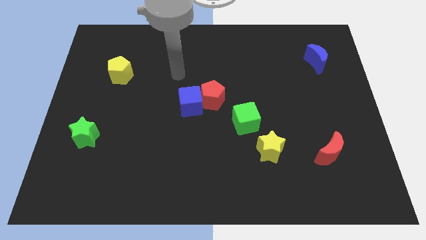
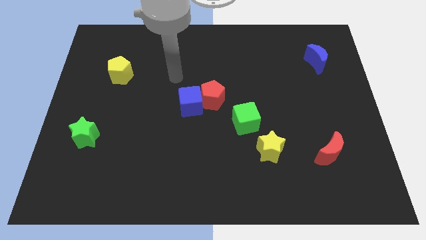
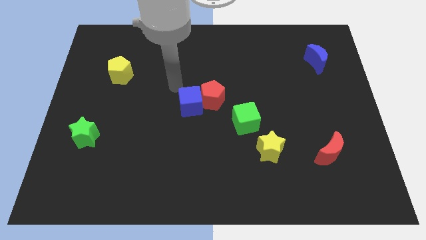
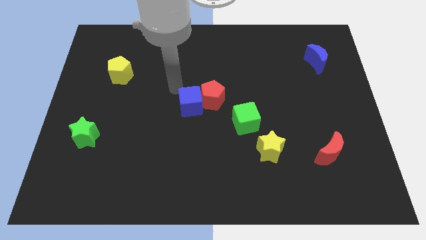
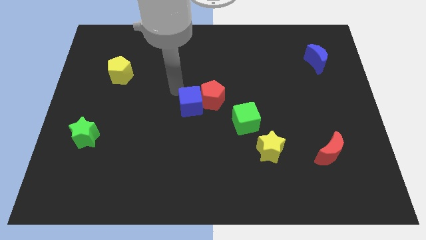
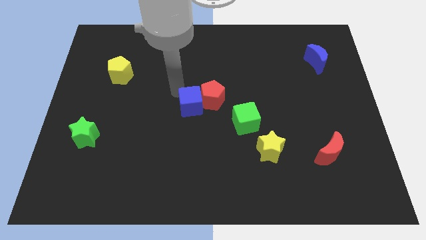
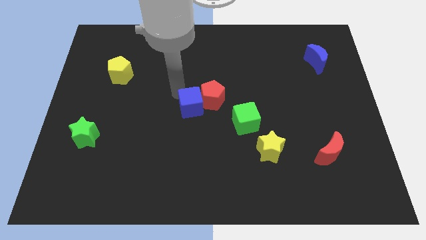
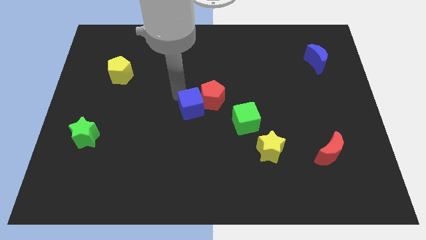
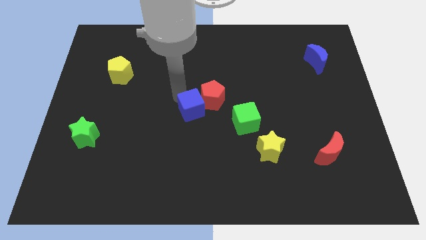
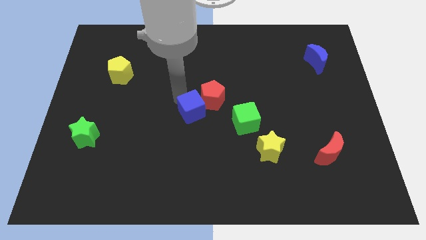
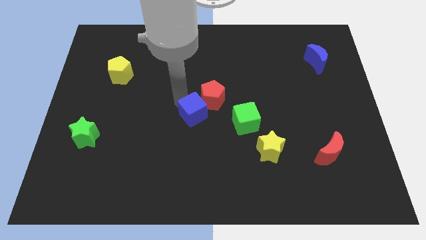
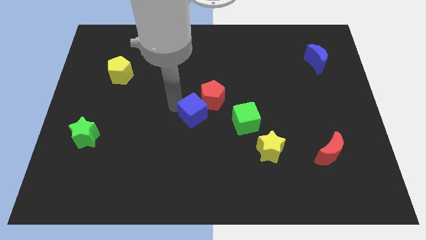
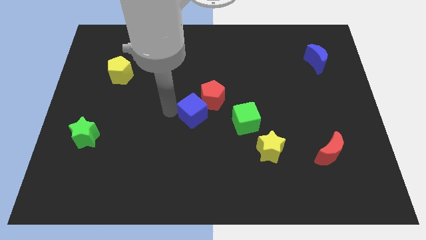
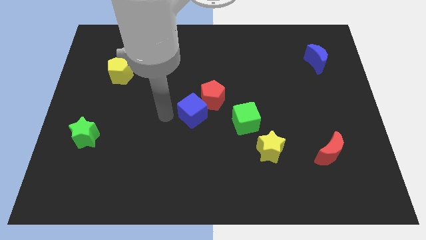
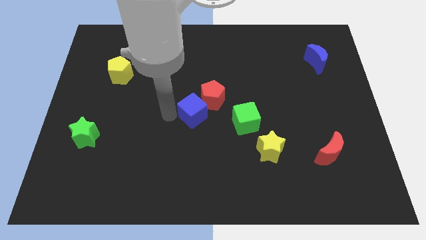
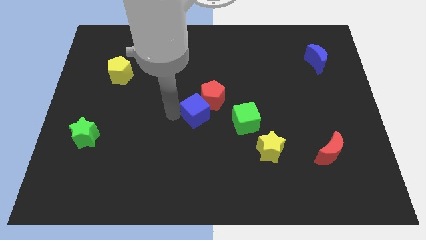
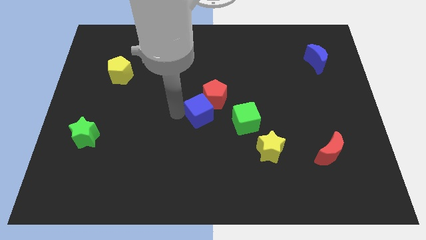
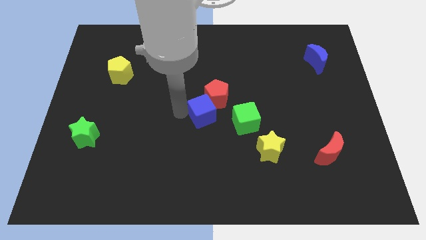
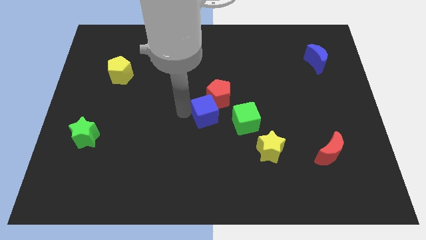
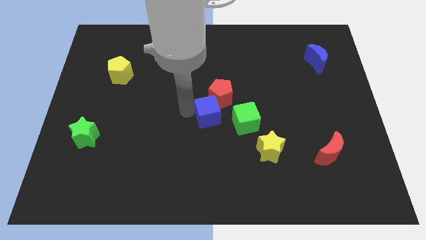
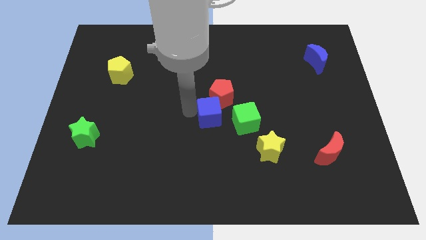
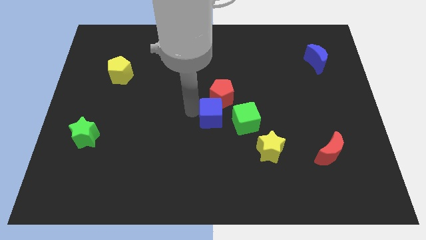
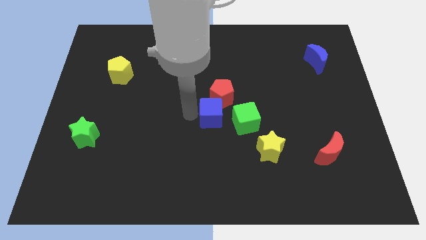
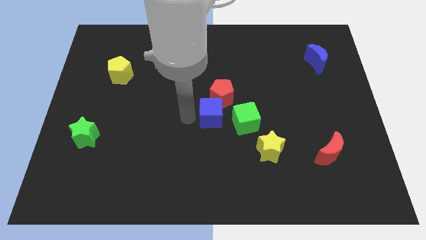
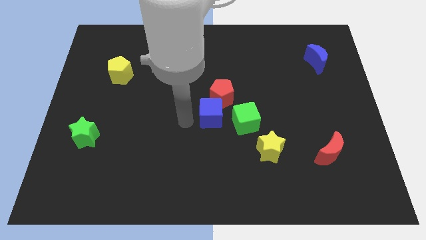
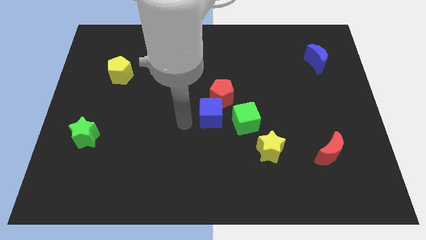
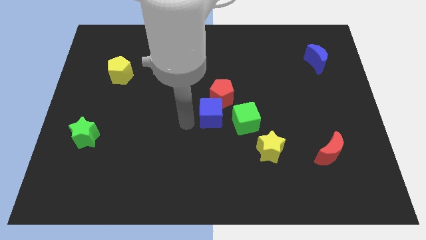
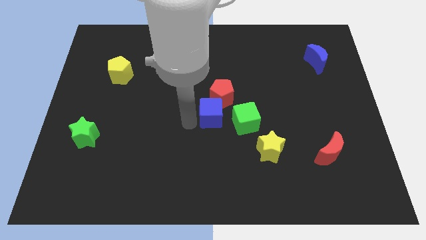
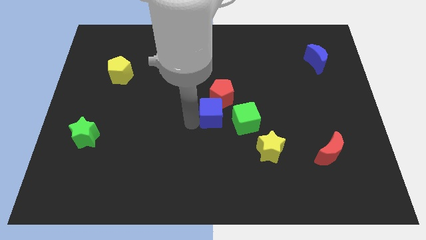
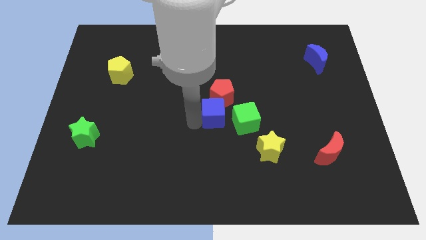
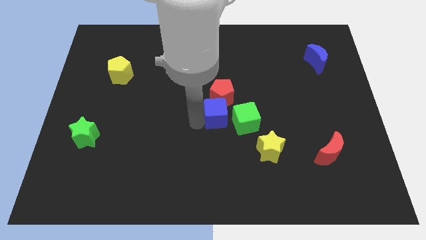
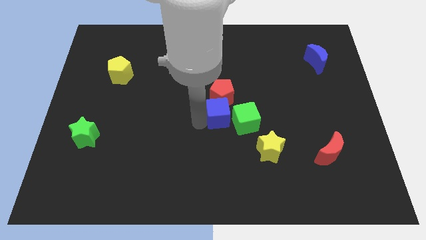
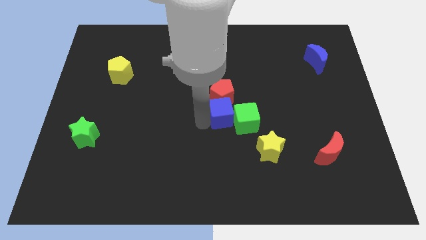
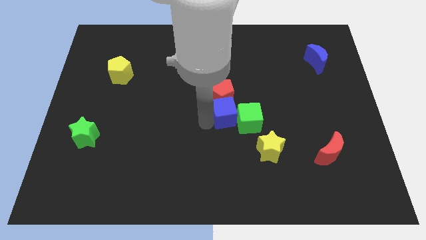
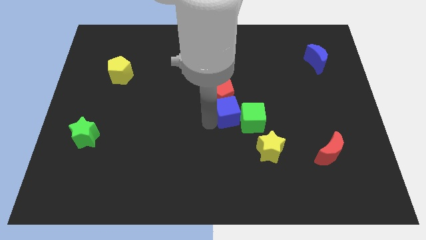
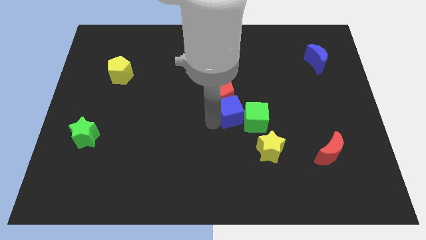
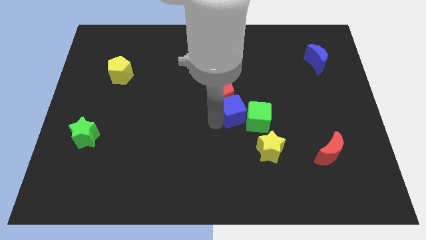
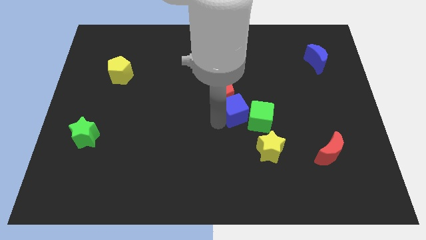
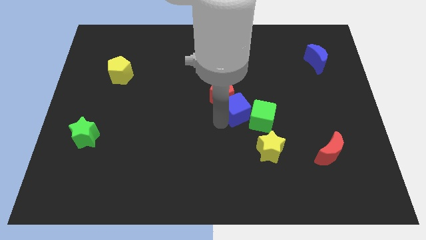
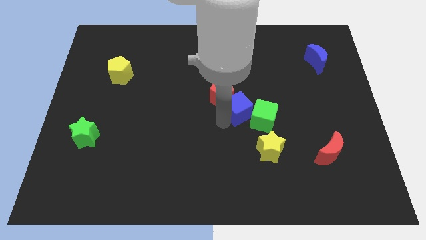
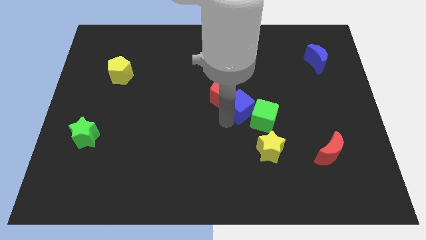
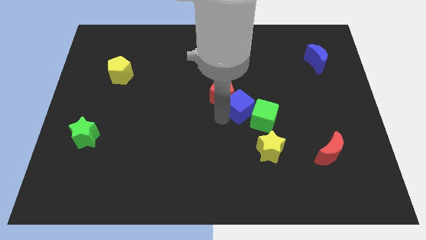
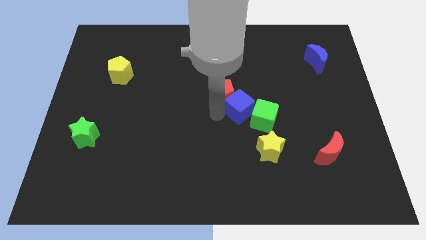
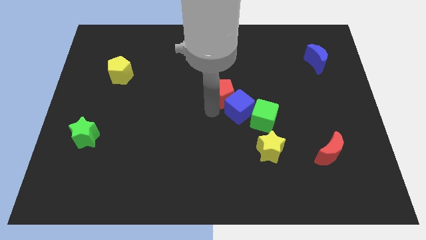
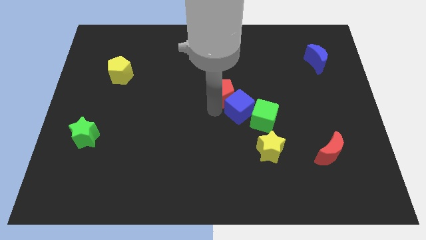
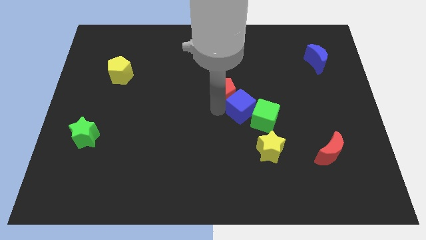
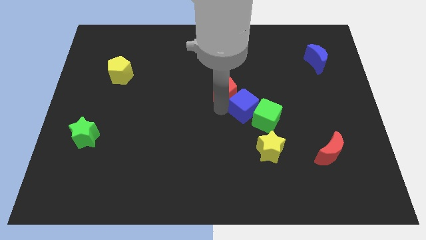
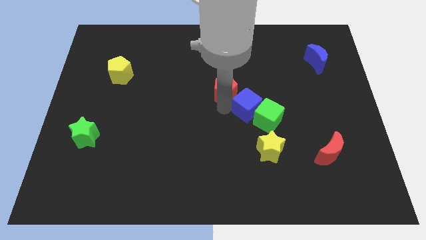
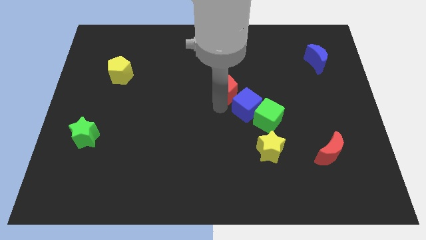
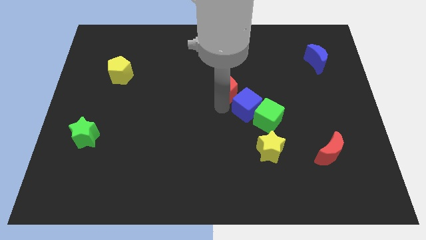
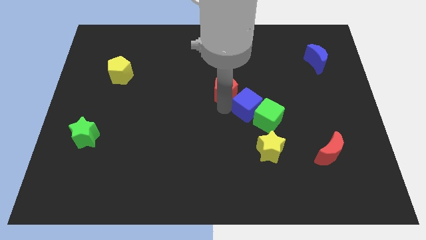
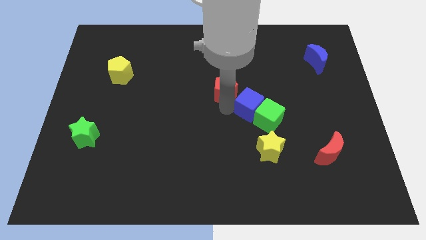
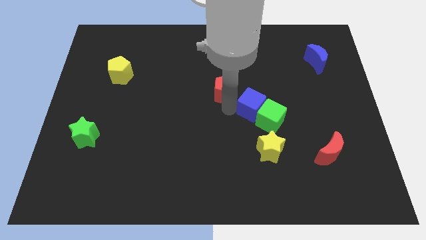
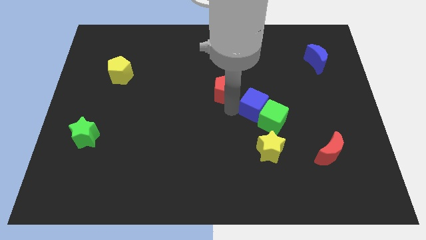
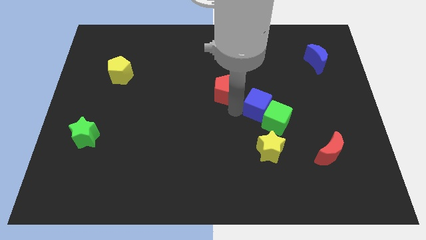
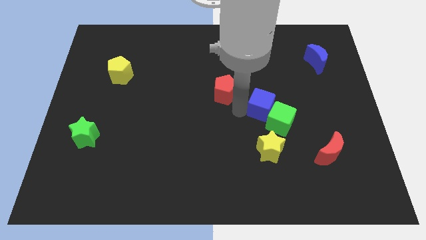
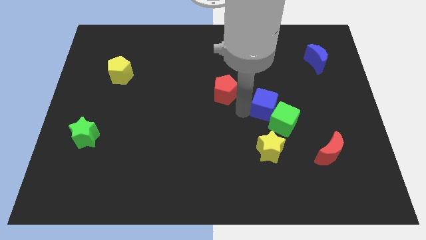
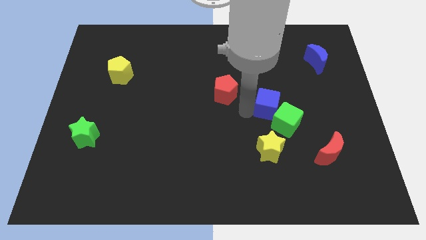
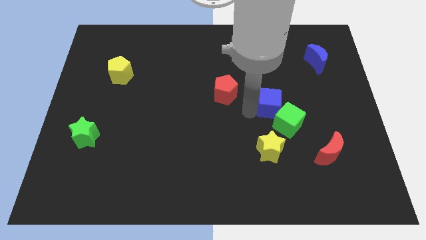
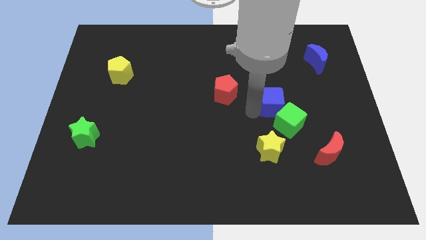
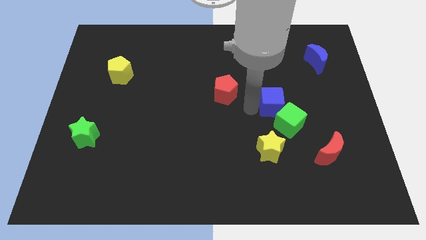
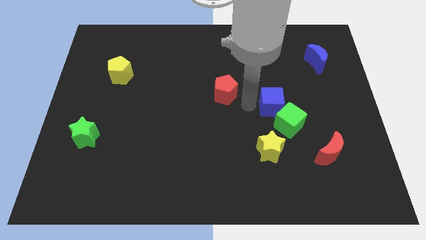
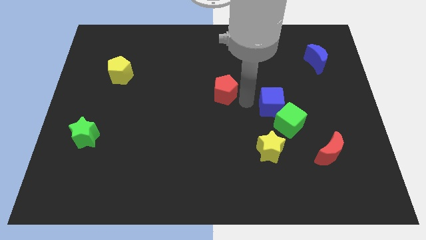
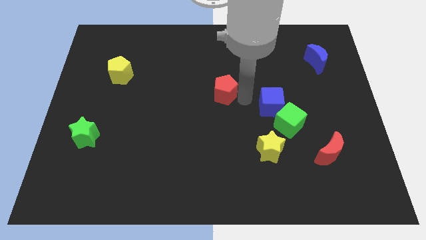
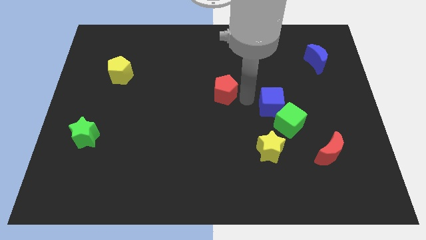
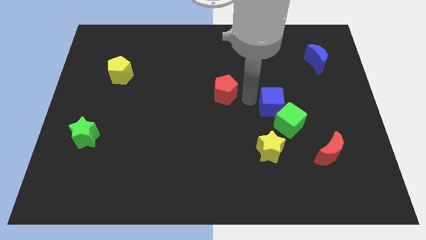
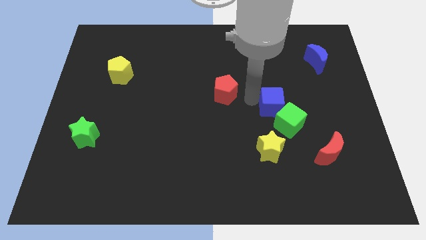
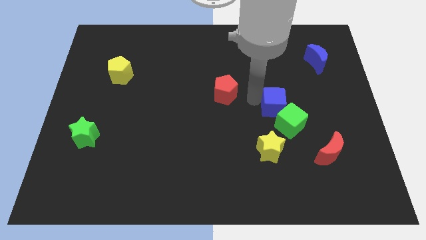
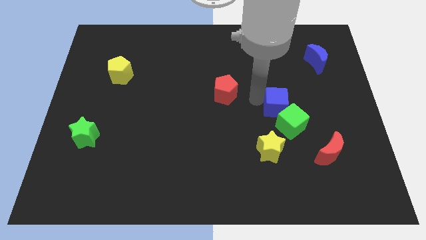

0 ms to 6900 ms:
move the blue cube right

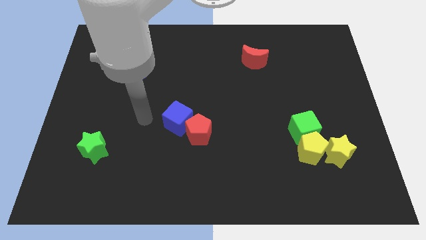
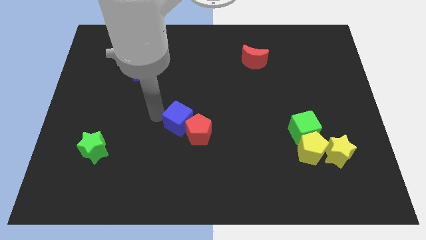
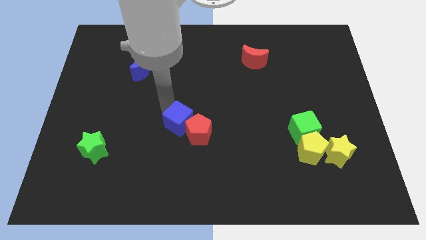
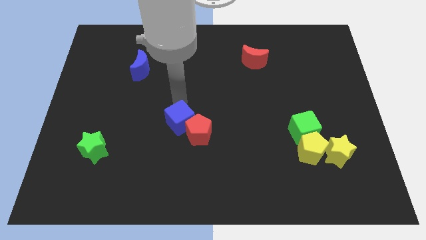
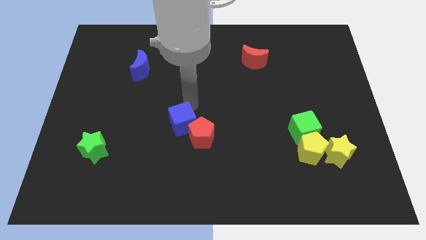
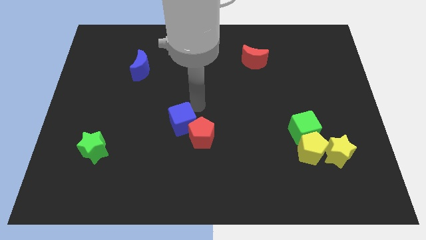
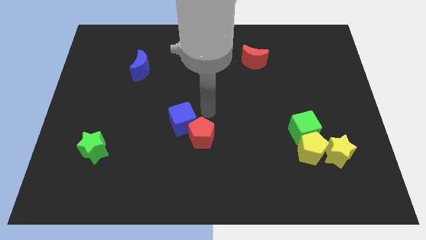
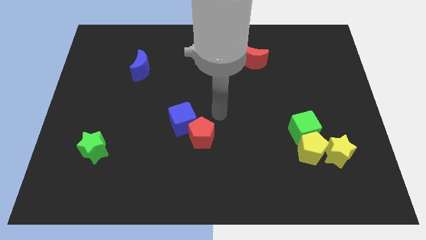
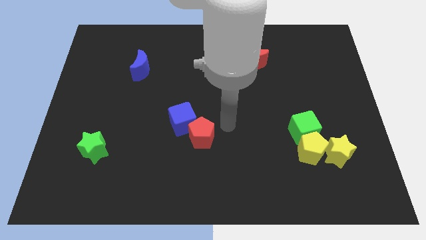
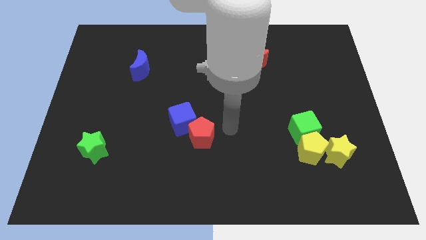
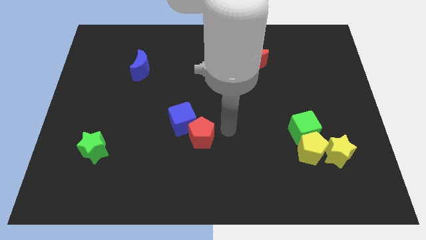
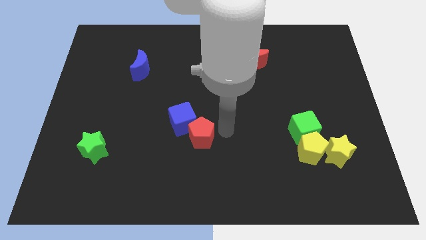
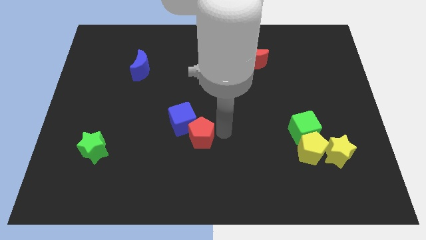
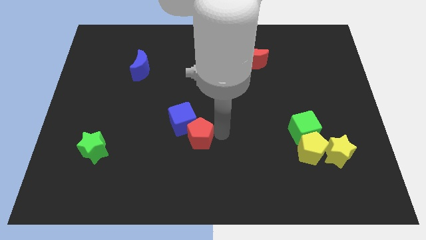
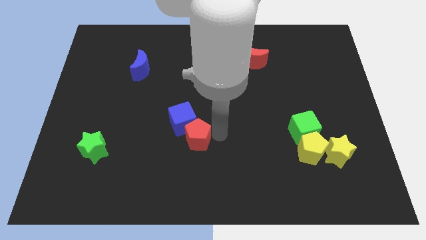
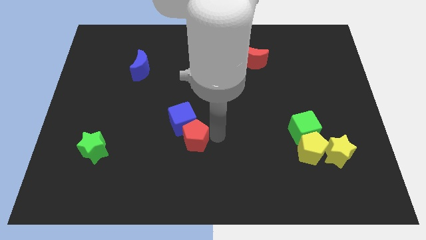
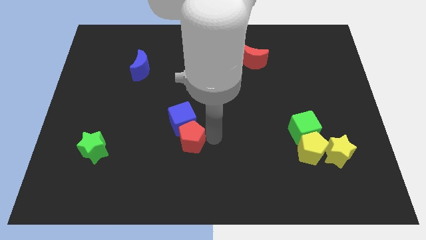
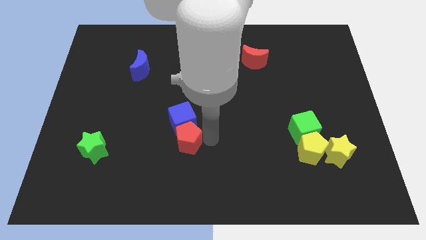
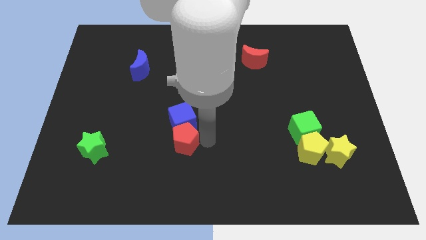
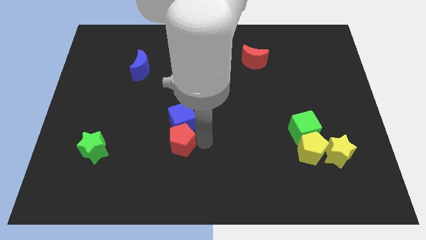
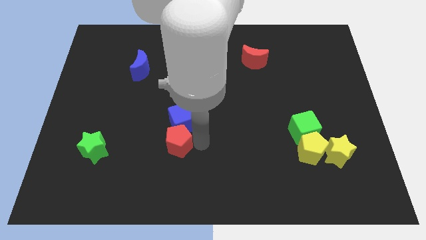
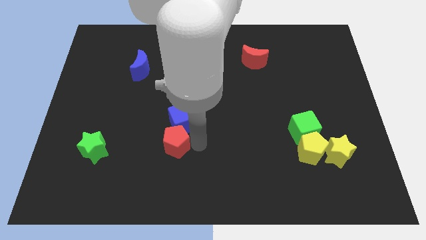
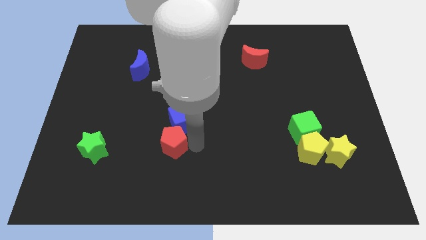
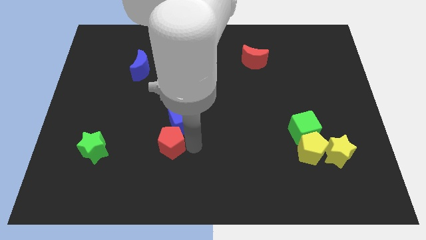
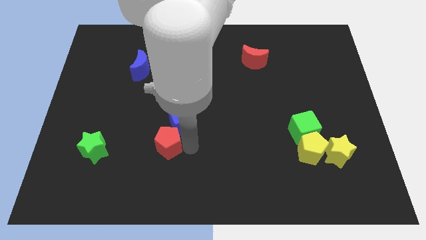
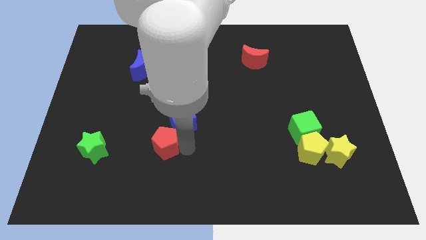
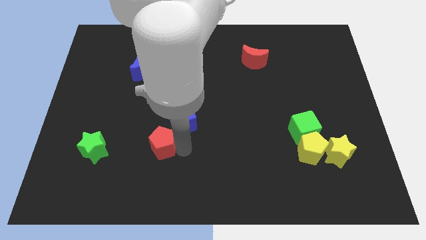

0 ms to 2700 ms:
push the red pentagon a bit to the left
